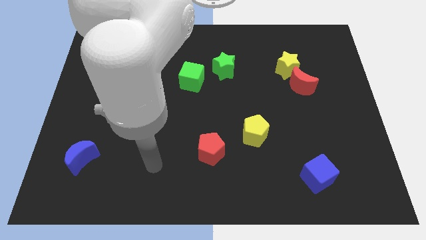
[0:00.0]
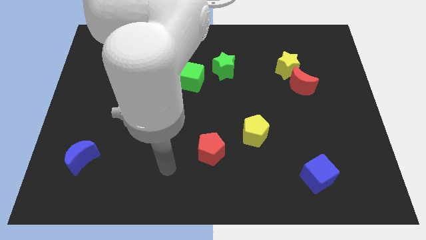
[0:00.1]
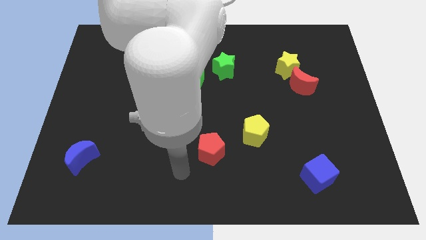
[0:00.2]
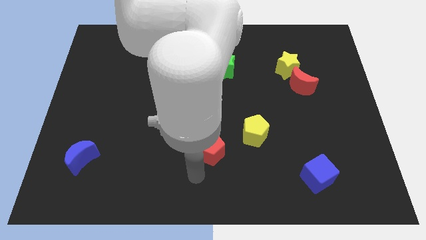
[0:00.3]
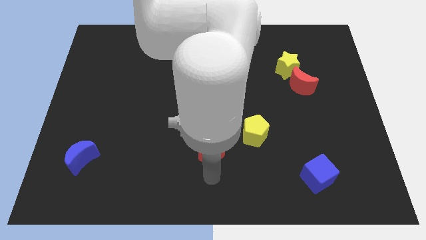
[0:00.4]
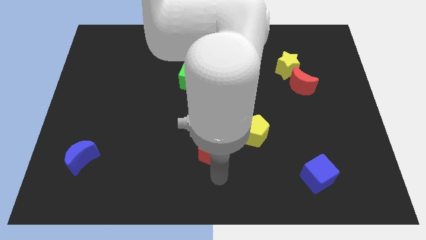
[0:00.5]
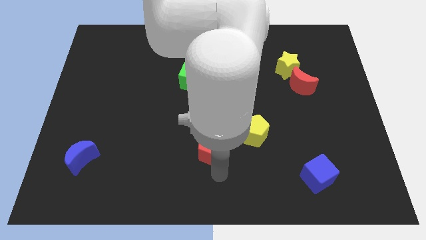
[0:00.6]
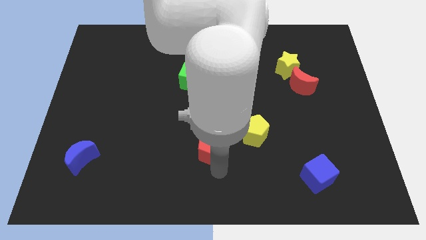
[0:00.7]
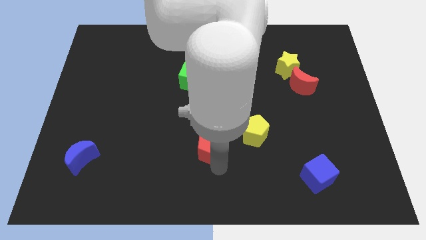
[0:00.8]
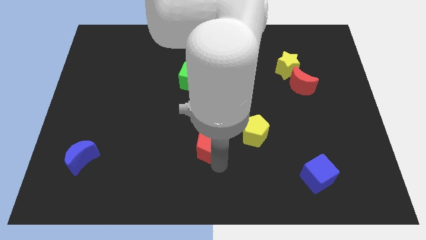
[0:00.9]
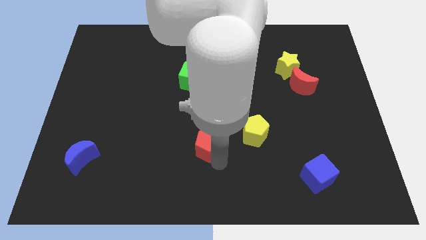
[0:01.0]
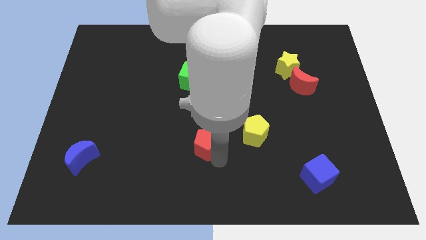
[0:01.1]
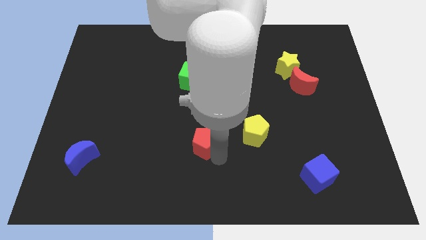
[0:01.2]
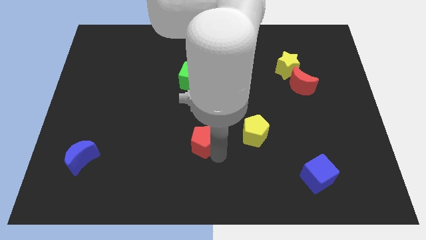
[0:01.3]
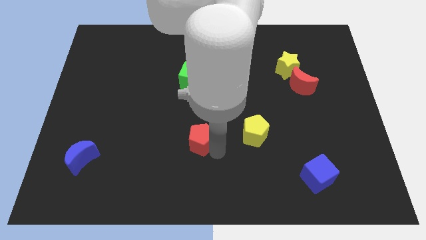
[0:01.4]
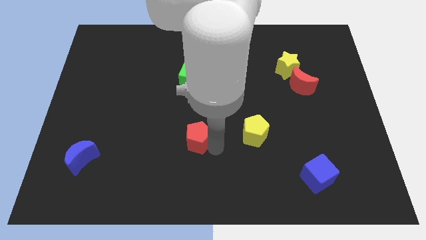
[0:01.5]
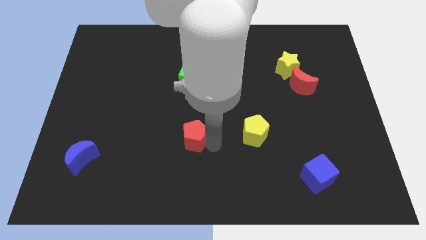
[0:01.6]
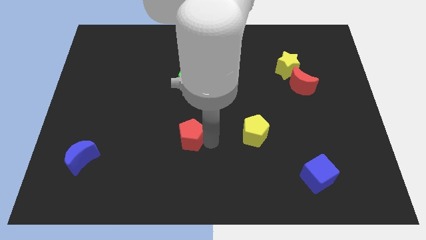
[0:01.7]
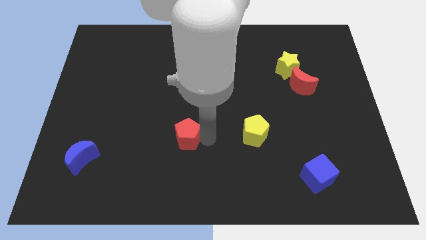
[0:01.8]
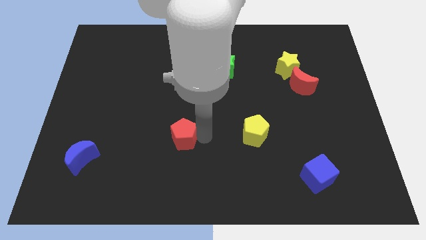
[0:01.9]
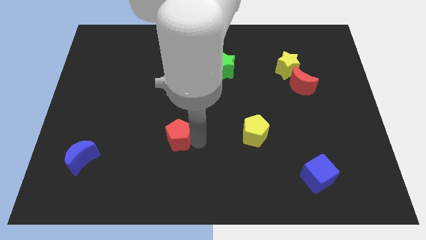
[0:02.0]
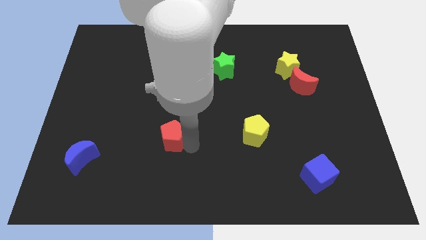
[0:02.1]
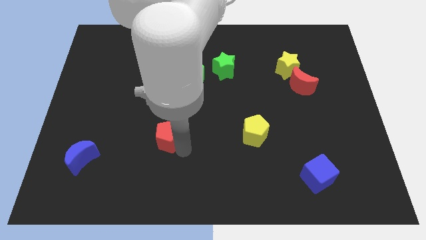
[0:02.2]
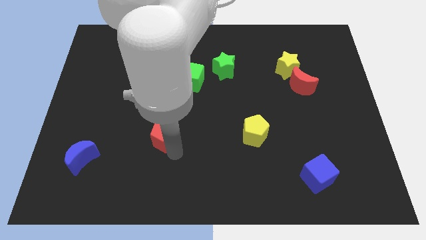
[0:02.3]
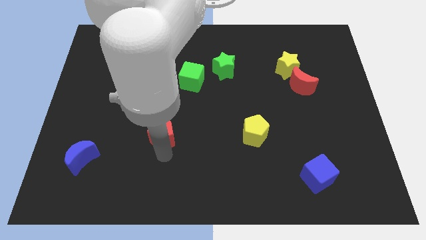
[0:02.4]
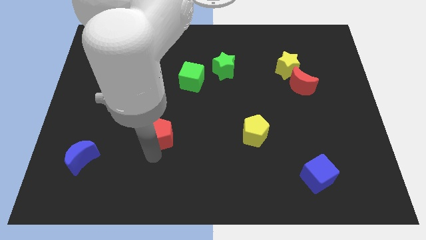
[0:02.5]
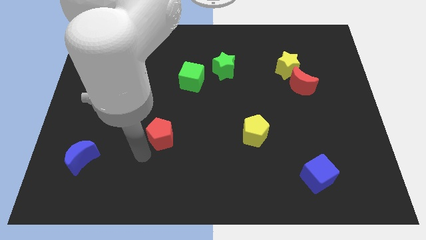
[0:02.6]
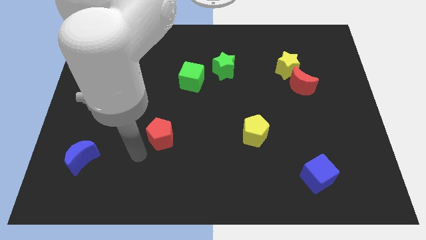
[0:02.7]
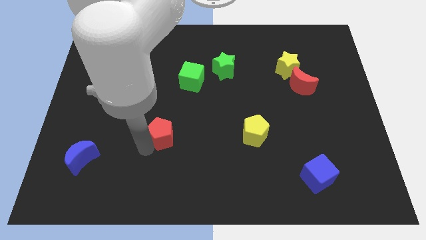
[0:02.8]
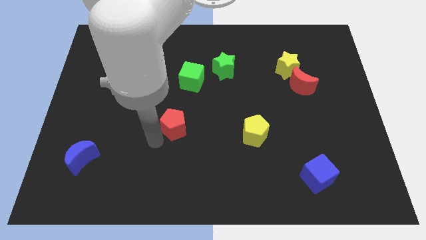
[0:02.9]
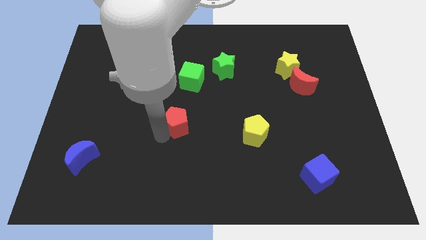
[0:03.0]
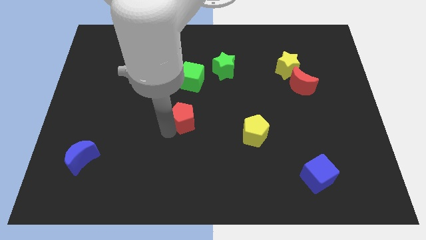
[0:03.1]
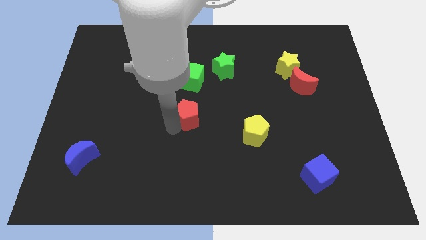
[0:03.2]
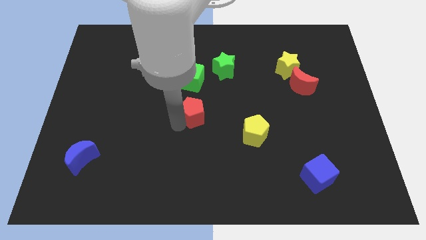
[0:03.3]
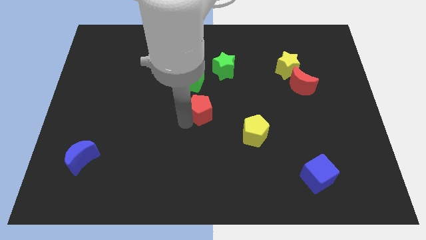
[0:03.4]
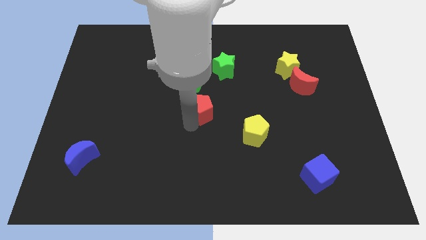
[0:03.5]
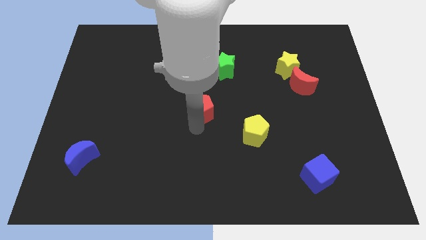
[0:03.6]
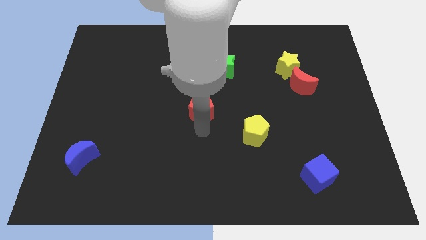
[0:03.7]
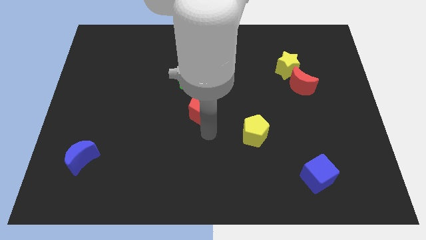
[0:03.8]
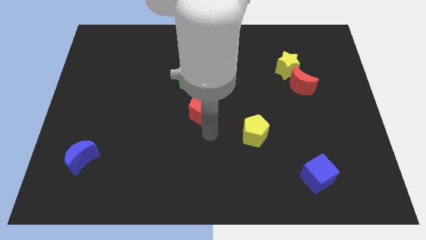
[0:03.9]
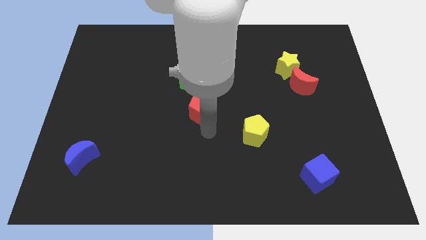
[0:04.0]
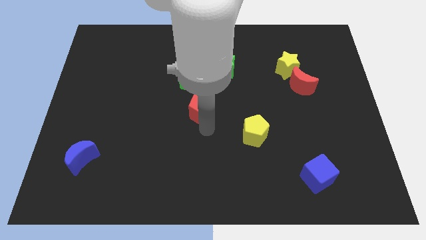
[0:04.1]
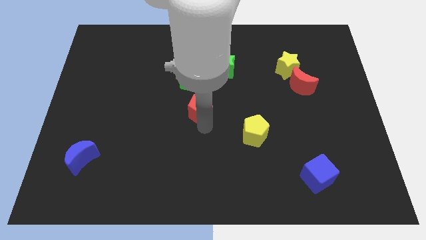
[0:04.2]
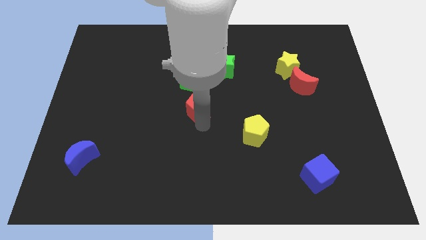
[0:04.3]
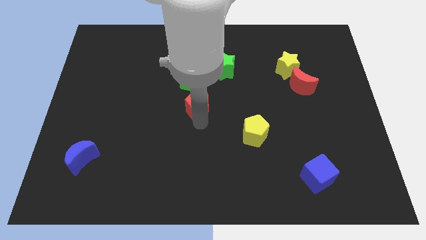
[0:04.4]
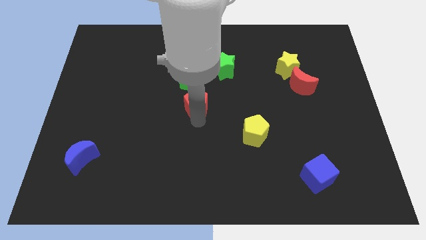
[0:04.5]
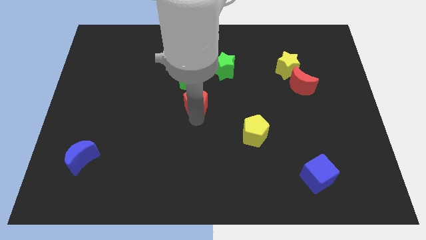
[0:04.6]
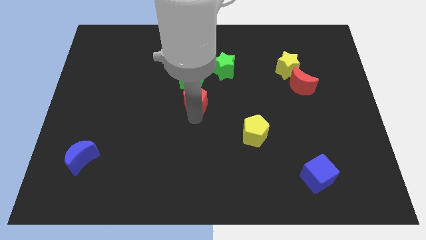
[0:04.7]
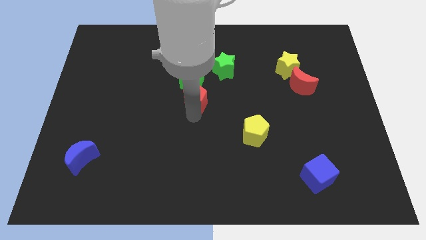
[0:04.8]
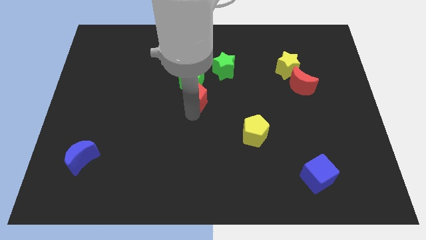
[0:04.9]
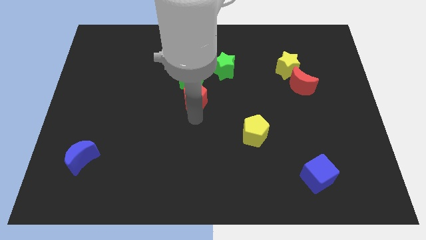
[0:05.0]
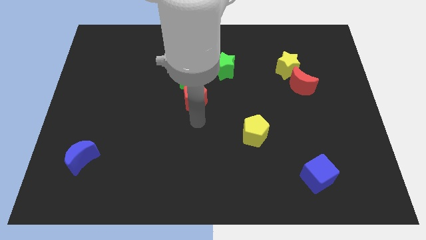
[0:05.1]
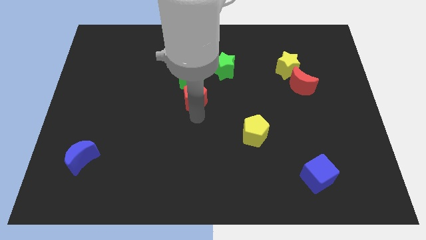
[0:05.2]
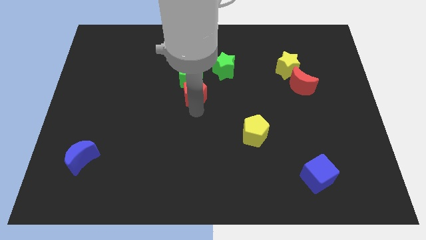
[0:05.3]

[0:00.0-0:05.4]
push the red pentagon to the green cube

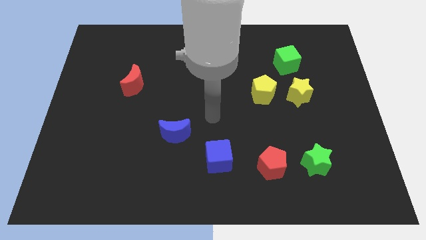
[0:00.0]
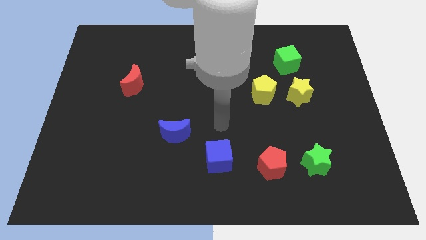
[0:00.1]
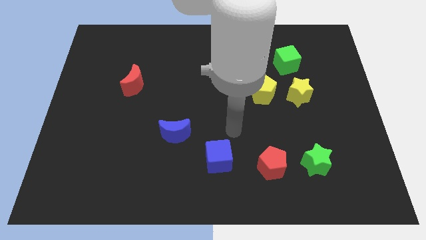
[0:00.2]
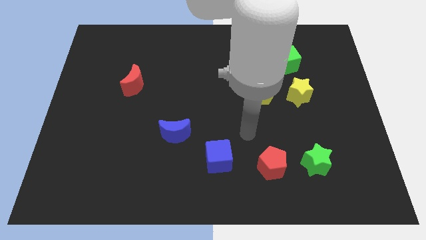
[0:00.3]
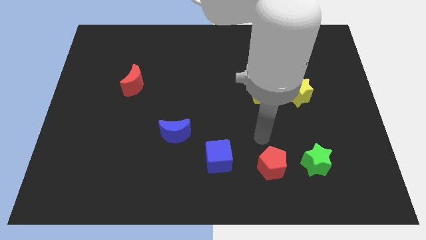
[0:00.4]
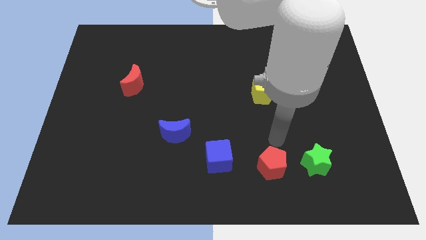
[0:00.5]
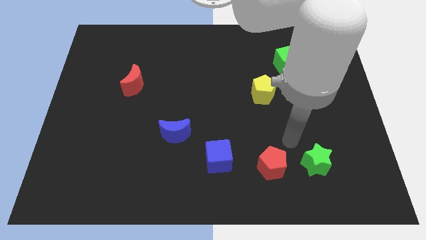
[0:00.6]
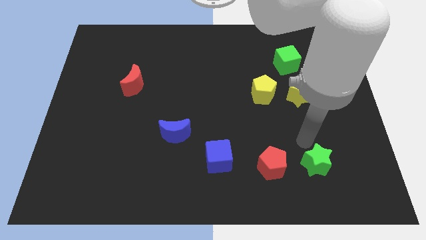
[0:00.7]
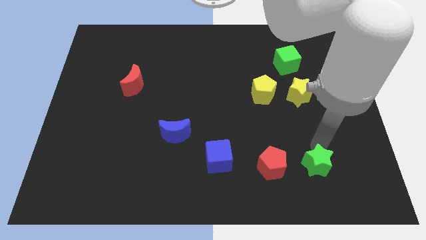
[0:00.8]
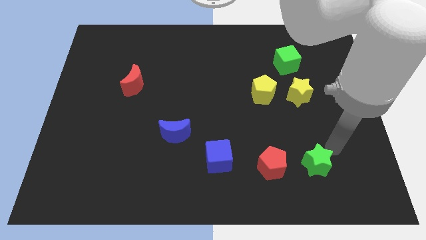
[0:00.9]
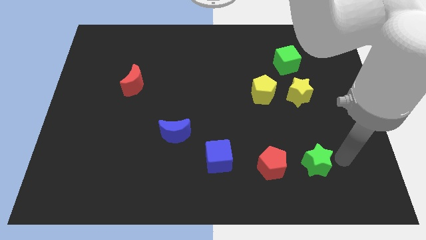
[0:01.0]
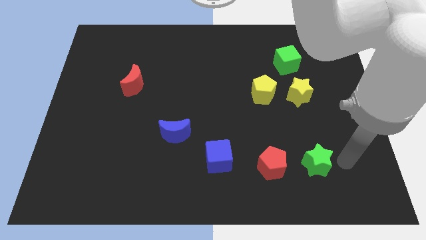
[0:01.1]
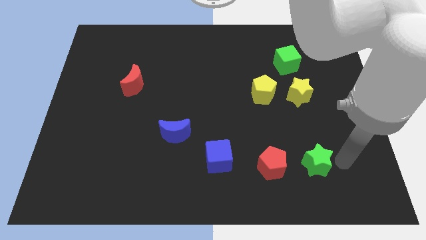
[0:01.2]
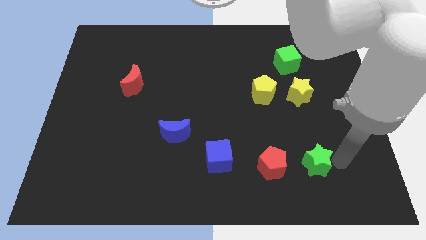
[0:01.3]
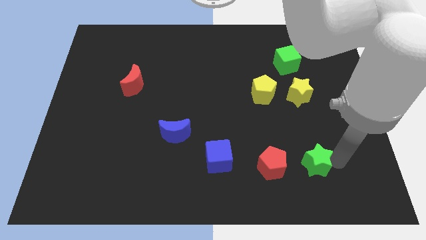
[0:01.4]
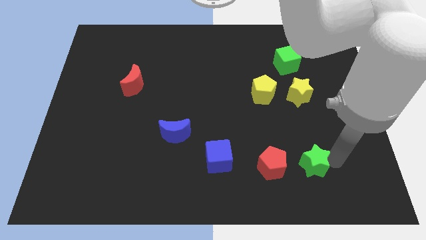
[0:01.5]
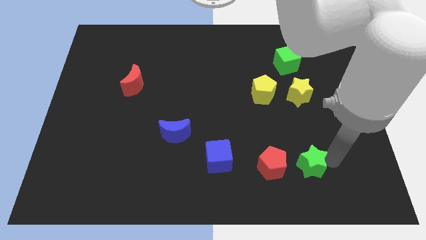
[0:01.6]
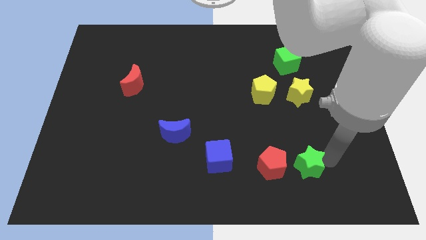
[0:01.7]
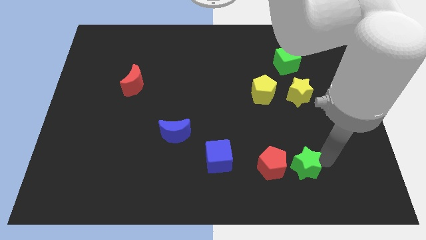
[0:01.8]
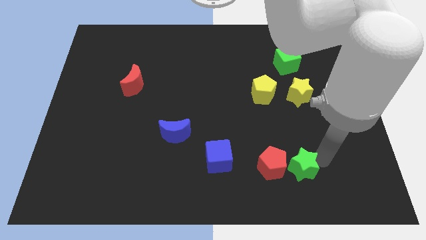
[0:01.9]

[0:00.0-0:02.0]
put the green star to the red pentagon
